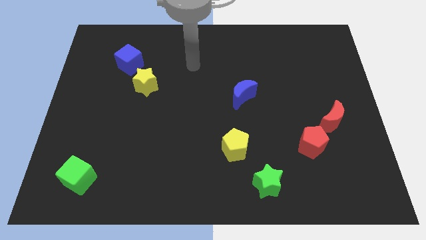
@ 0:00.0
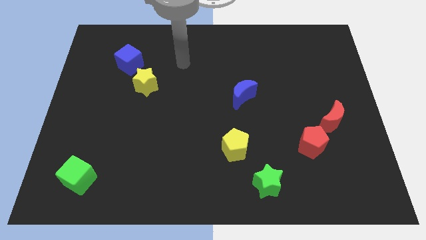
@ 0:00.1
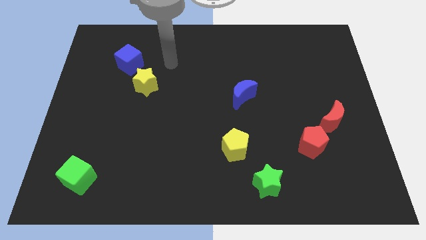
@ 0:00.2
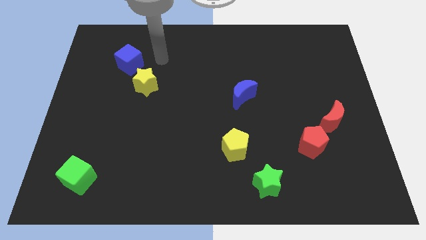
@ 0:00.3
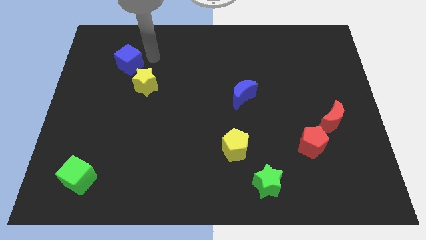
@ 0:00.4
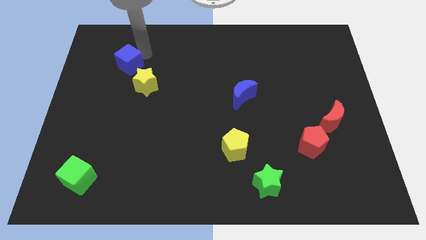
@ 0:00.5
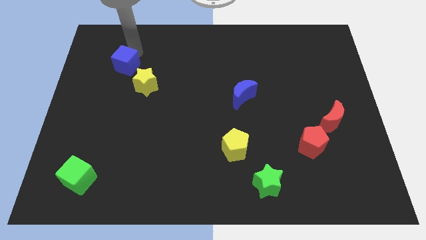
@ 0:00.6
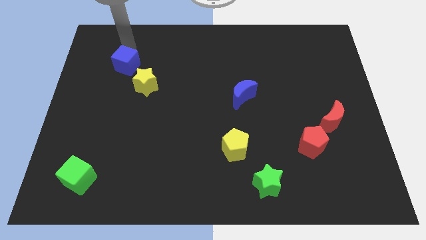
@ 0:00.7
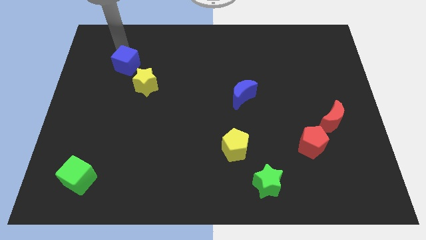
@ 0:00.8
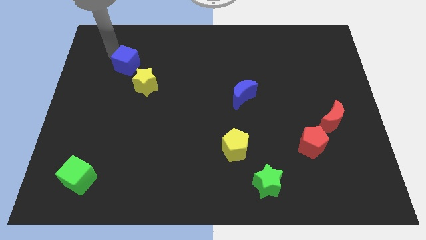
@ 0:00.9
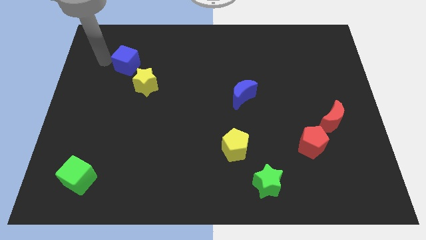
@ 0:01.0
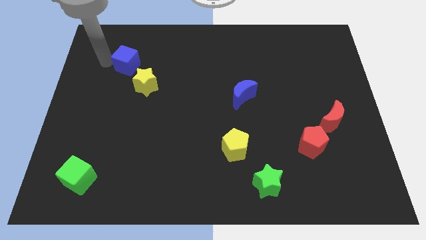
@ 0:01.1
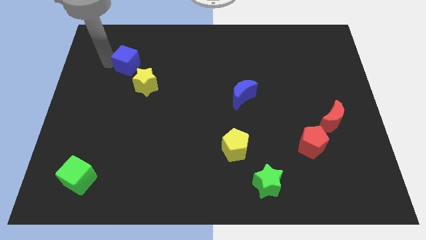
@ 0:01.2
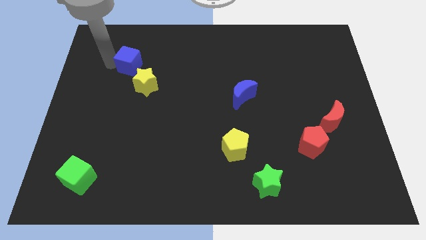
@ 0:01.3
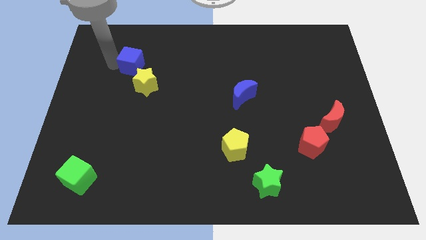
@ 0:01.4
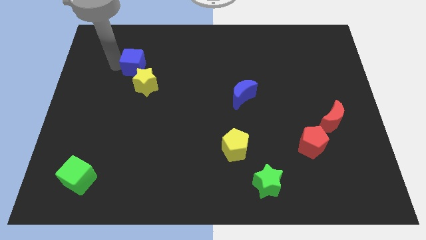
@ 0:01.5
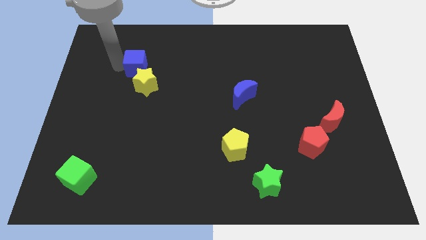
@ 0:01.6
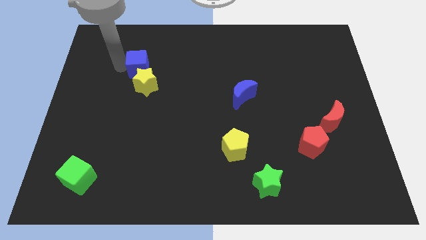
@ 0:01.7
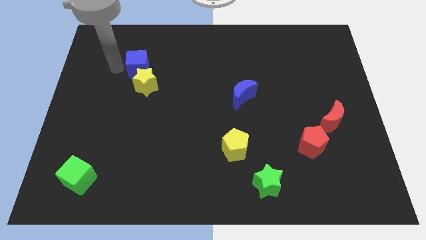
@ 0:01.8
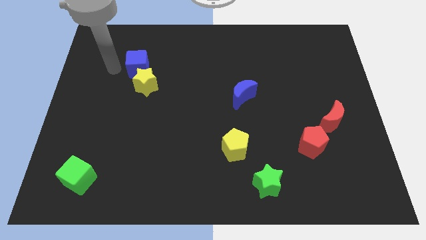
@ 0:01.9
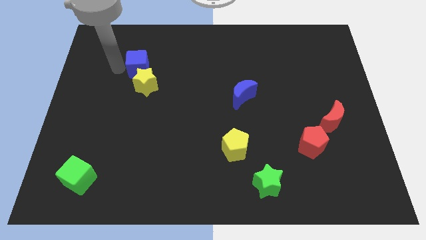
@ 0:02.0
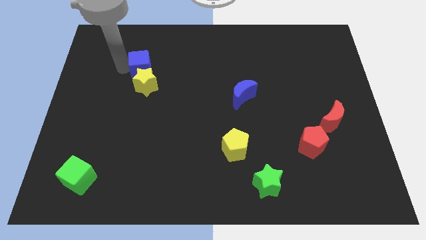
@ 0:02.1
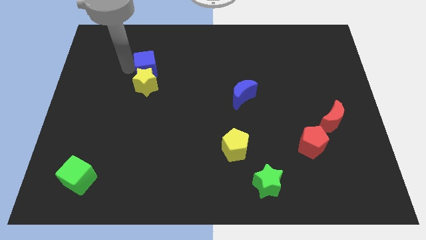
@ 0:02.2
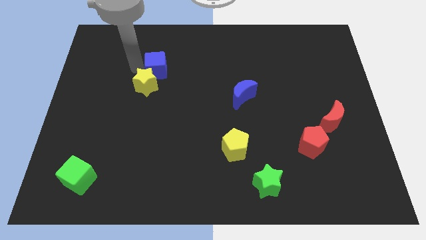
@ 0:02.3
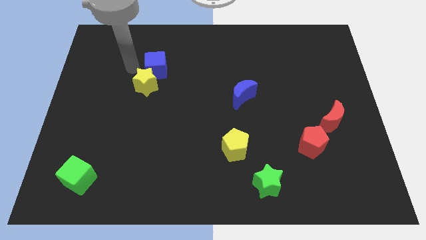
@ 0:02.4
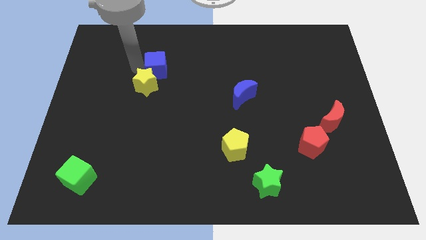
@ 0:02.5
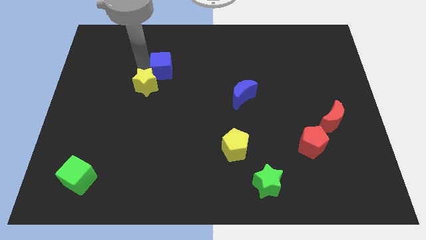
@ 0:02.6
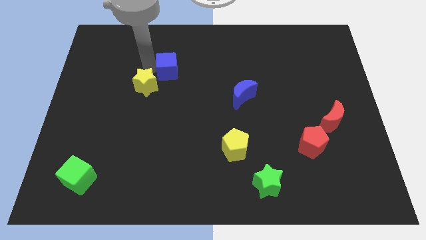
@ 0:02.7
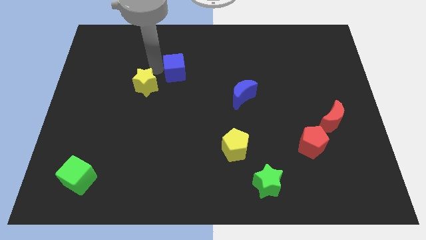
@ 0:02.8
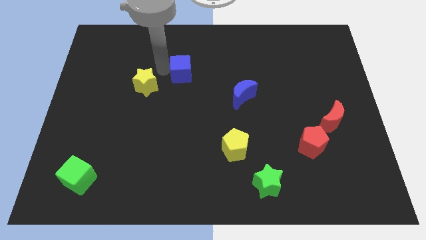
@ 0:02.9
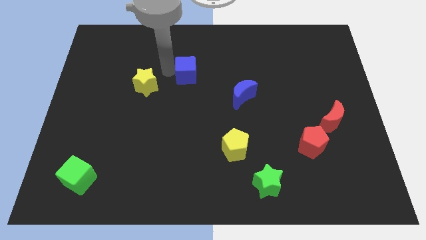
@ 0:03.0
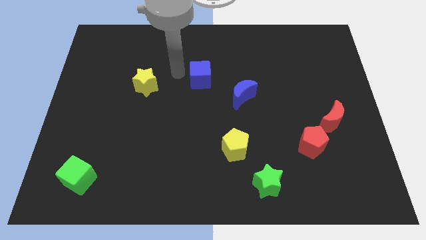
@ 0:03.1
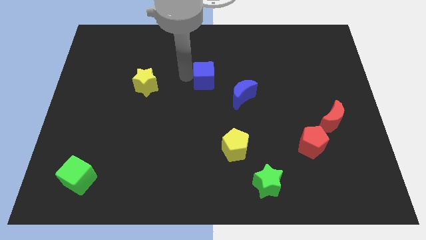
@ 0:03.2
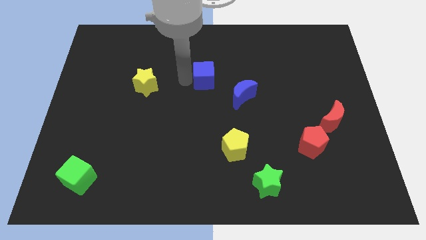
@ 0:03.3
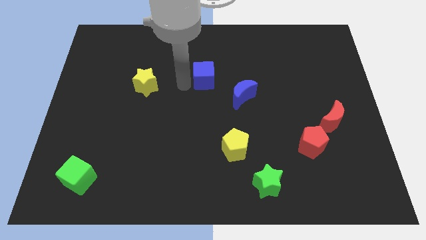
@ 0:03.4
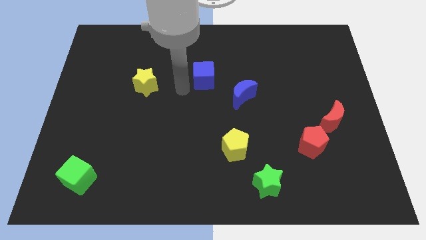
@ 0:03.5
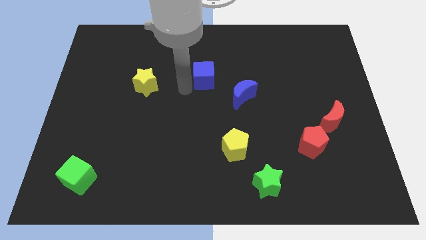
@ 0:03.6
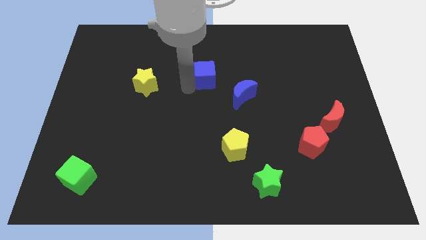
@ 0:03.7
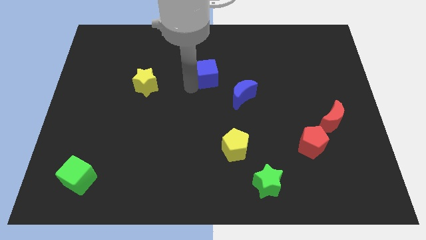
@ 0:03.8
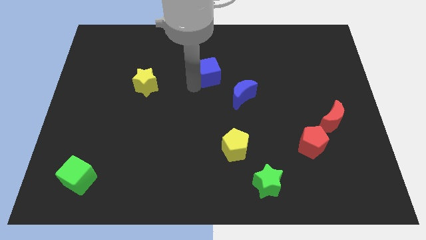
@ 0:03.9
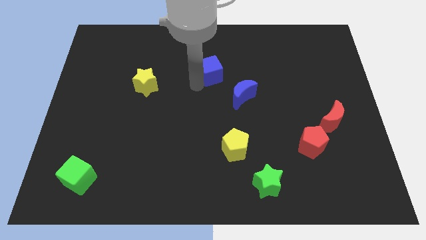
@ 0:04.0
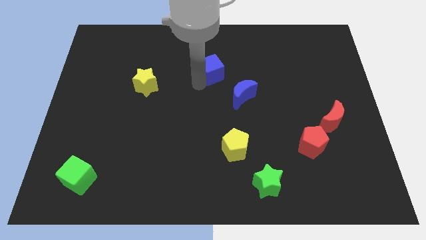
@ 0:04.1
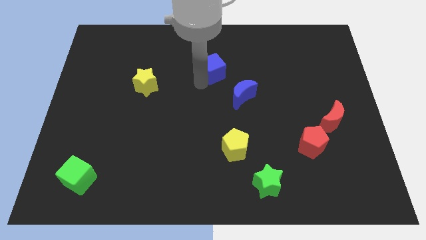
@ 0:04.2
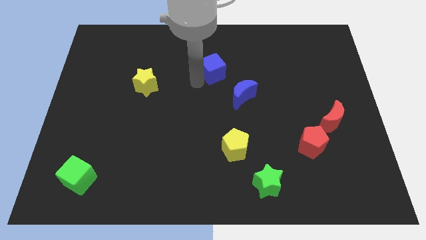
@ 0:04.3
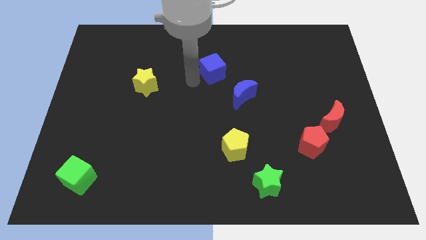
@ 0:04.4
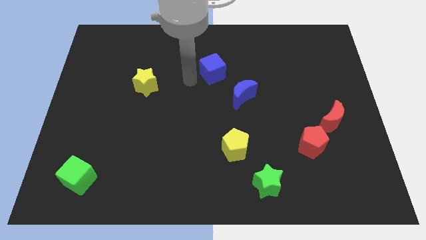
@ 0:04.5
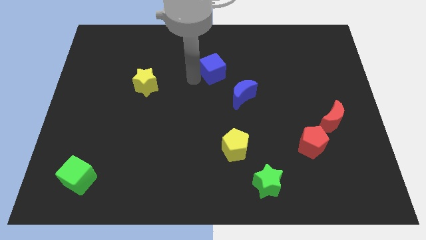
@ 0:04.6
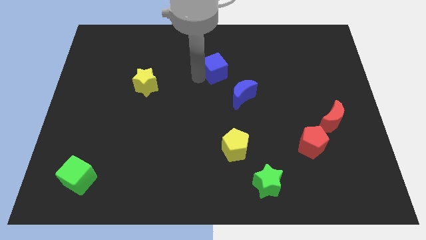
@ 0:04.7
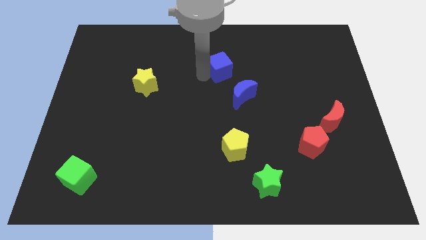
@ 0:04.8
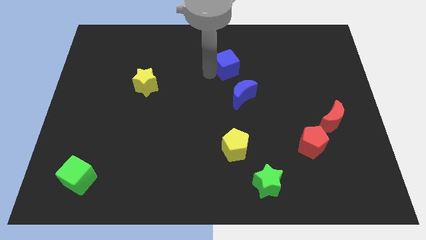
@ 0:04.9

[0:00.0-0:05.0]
slide the blue cube to the top of the blue moon

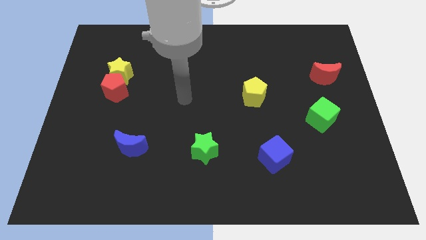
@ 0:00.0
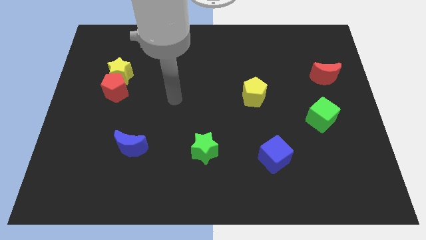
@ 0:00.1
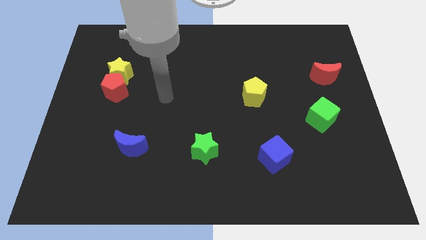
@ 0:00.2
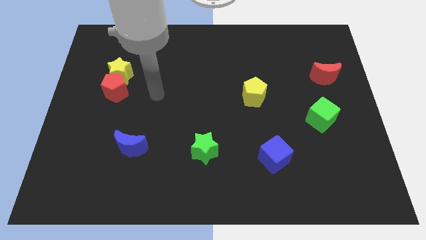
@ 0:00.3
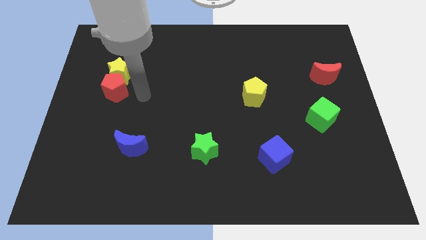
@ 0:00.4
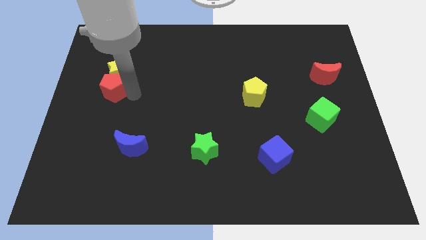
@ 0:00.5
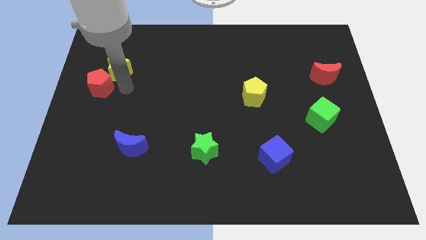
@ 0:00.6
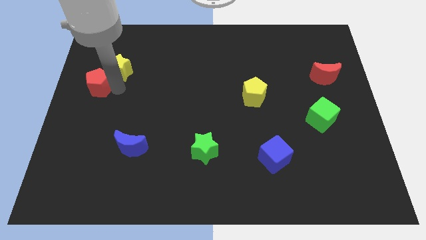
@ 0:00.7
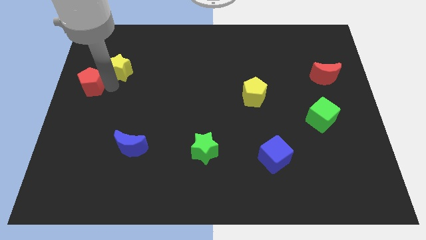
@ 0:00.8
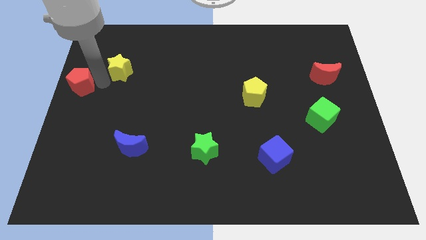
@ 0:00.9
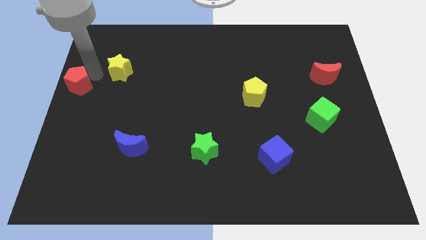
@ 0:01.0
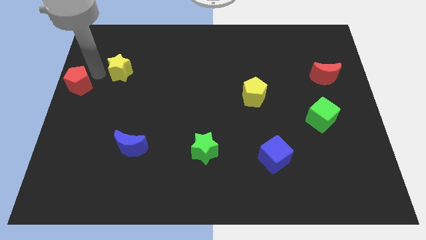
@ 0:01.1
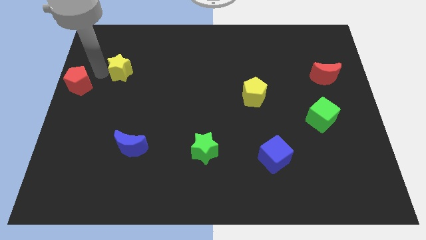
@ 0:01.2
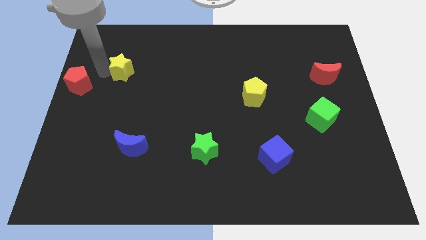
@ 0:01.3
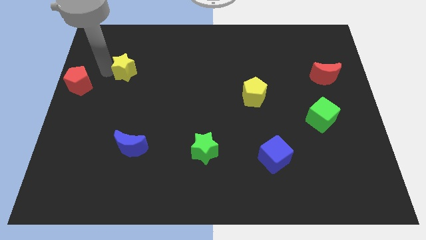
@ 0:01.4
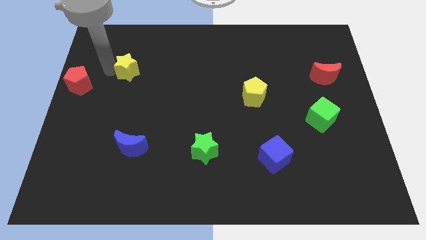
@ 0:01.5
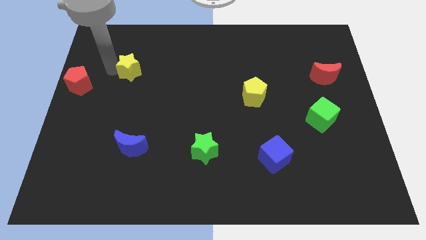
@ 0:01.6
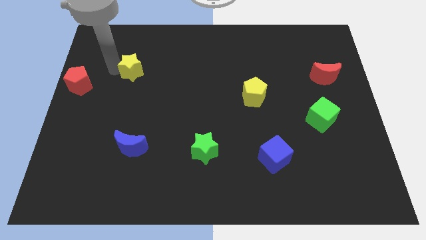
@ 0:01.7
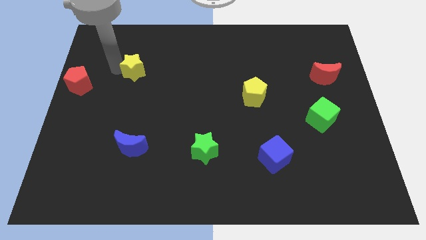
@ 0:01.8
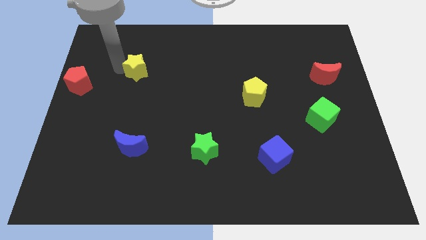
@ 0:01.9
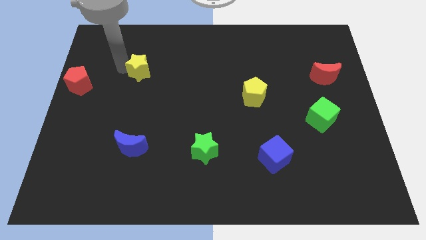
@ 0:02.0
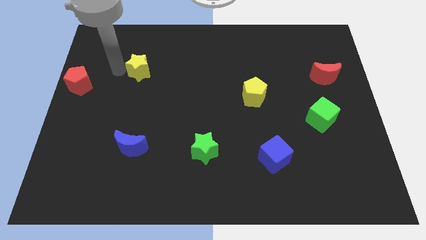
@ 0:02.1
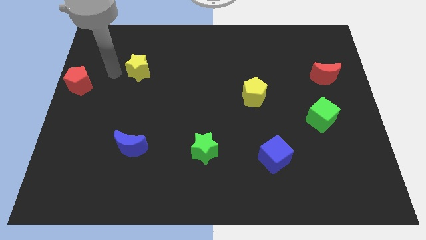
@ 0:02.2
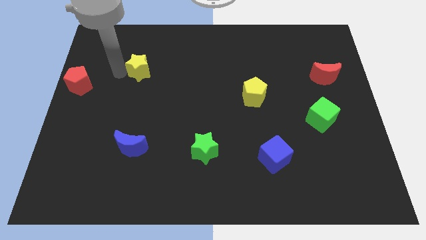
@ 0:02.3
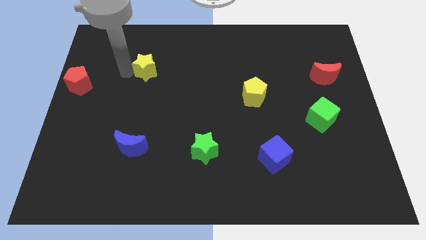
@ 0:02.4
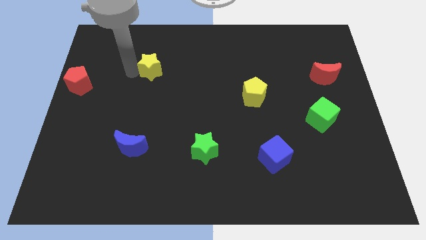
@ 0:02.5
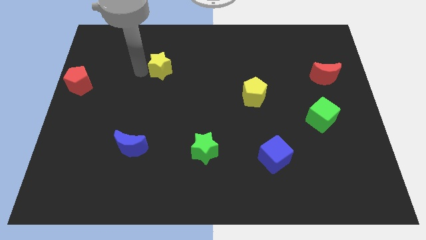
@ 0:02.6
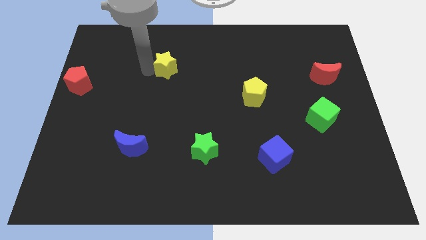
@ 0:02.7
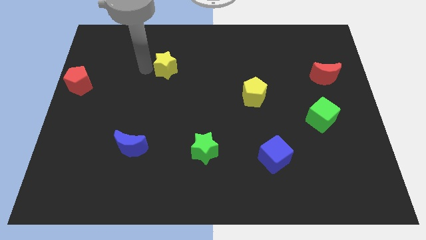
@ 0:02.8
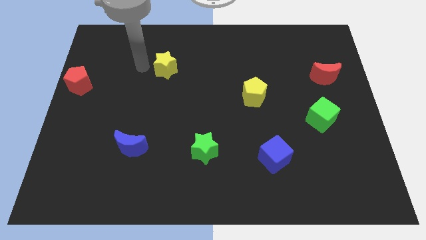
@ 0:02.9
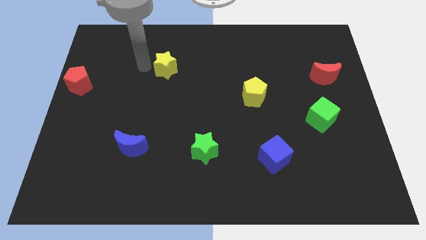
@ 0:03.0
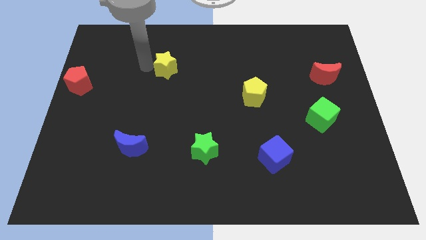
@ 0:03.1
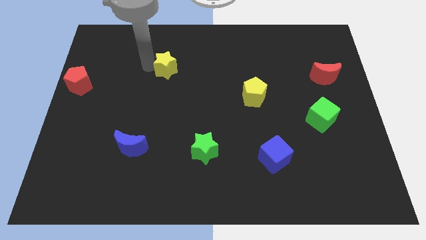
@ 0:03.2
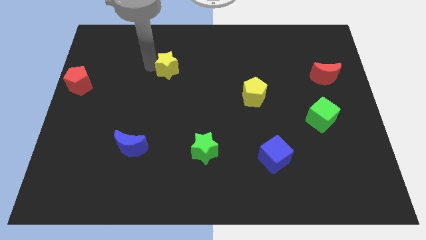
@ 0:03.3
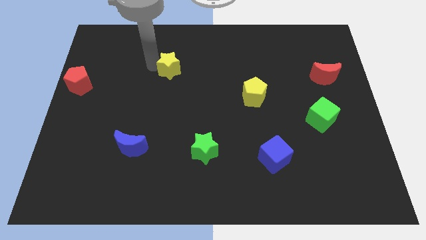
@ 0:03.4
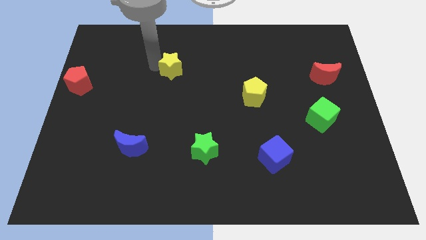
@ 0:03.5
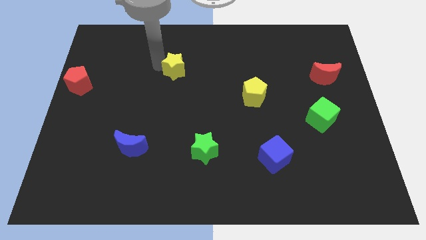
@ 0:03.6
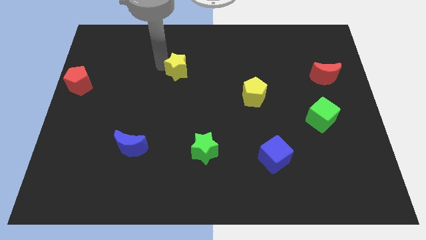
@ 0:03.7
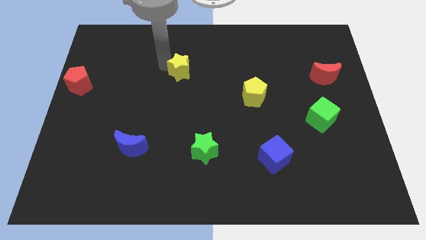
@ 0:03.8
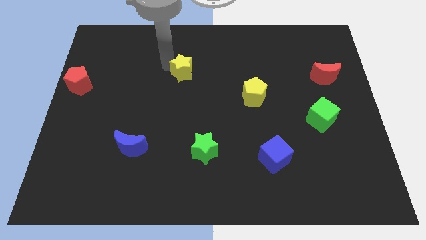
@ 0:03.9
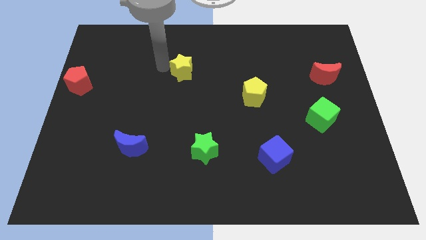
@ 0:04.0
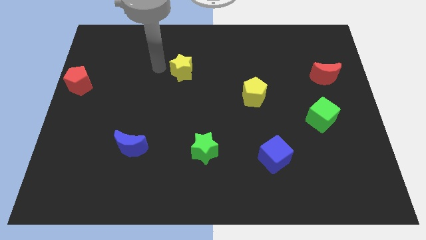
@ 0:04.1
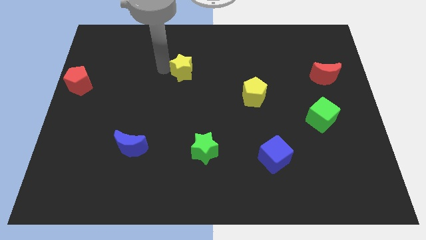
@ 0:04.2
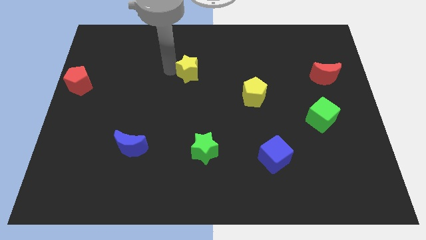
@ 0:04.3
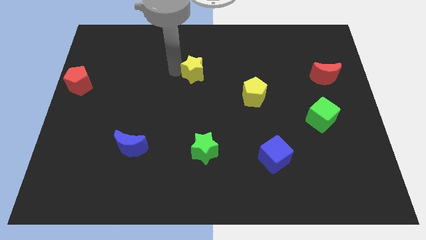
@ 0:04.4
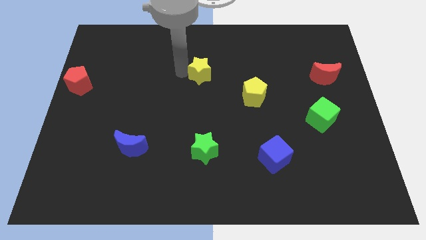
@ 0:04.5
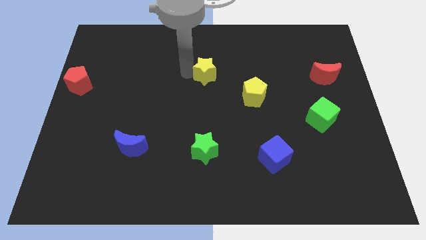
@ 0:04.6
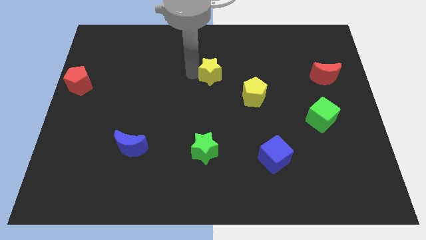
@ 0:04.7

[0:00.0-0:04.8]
push the yellow star to the top left side of the yellow pentagon
